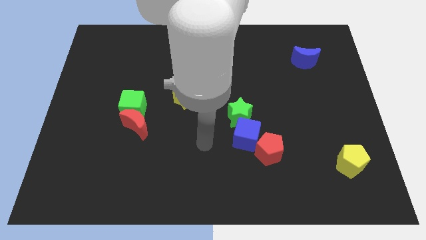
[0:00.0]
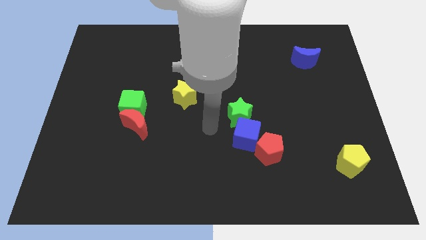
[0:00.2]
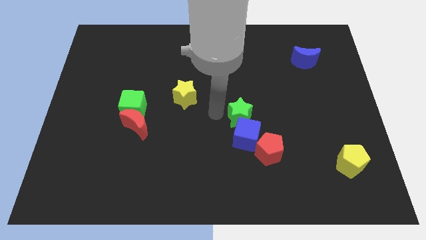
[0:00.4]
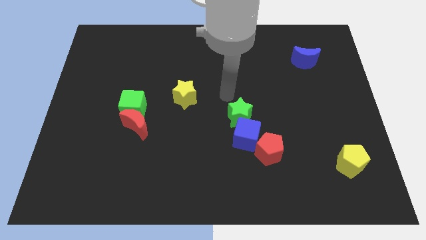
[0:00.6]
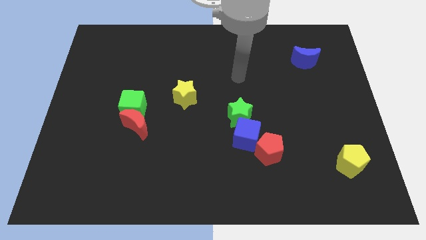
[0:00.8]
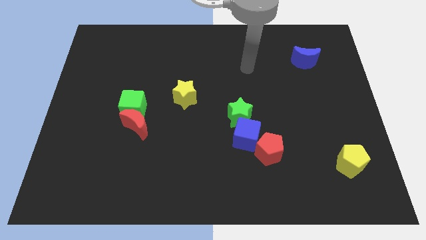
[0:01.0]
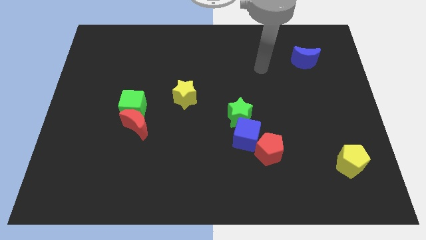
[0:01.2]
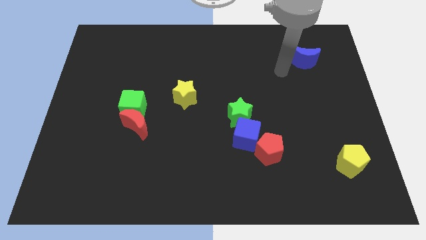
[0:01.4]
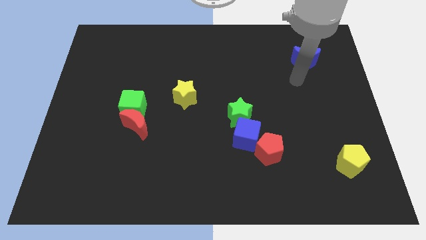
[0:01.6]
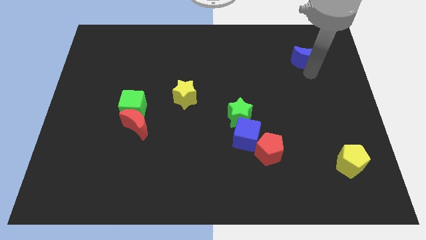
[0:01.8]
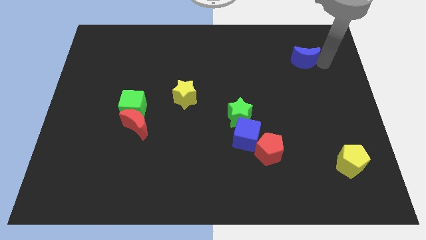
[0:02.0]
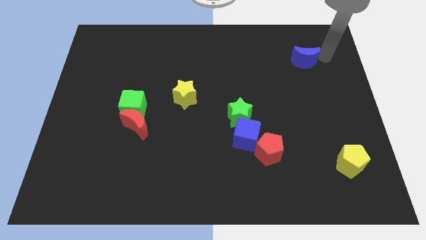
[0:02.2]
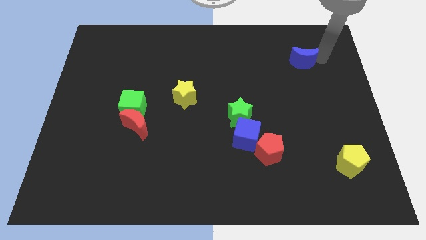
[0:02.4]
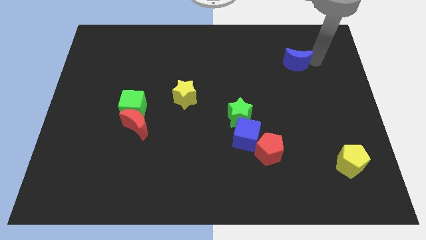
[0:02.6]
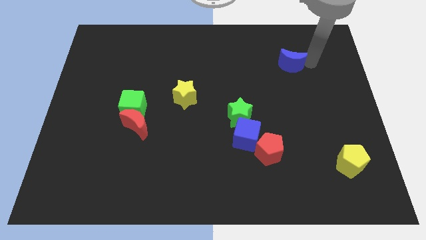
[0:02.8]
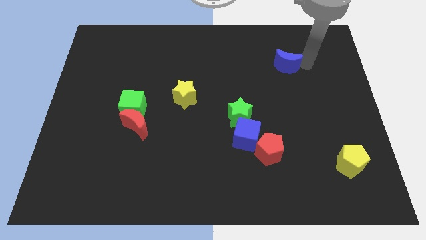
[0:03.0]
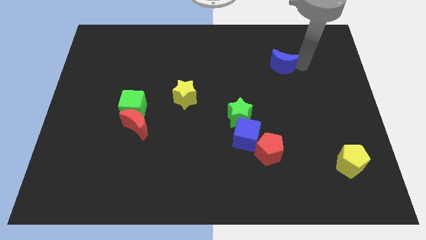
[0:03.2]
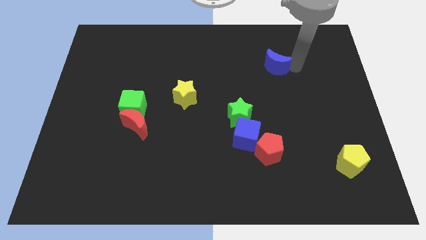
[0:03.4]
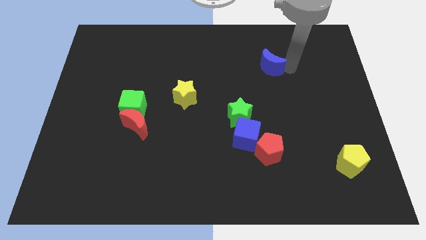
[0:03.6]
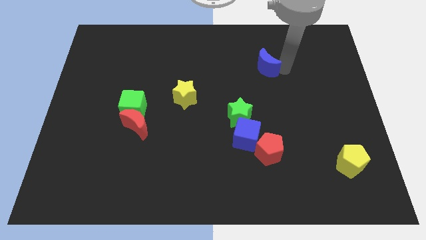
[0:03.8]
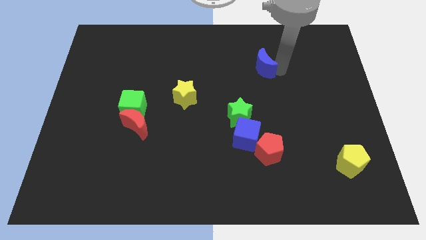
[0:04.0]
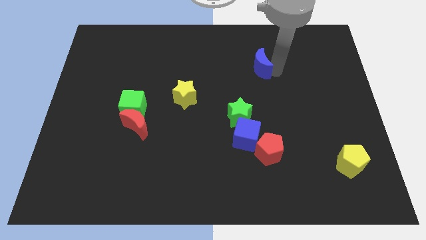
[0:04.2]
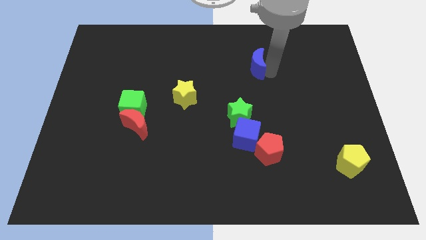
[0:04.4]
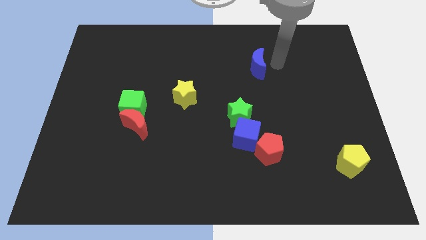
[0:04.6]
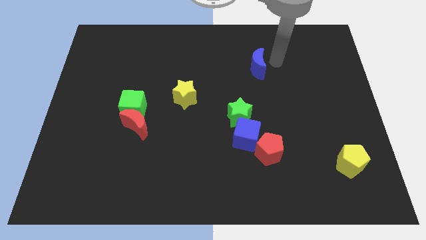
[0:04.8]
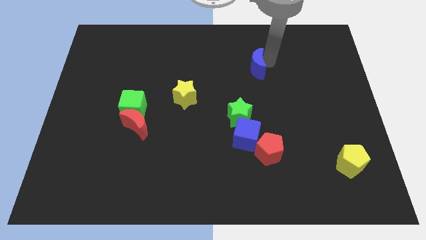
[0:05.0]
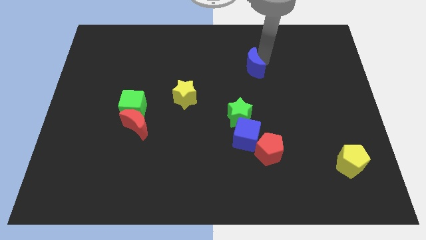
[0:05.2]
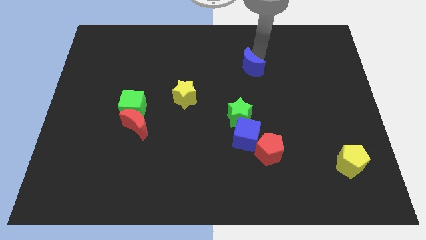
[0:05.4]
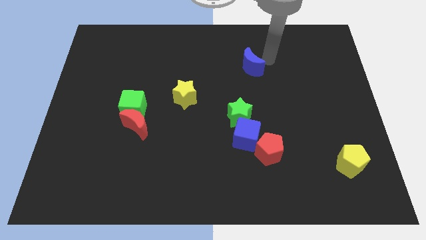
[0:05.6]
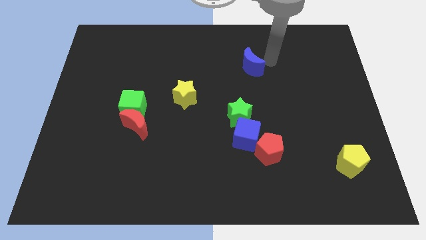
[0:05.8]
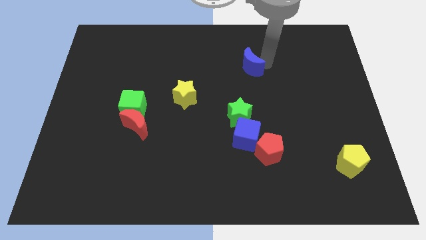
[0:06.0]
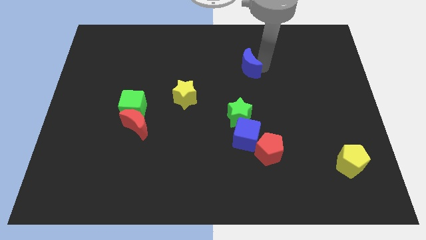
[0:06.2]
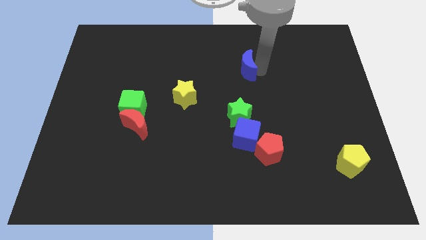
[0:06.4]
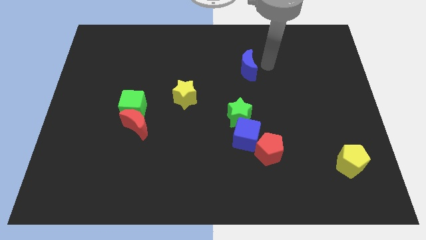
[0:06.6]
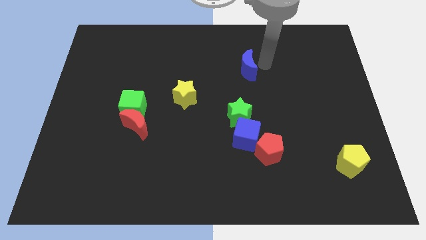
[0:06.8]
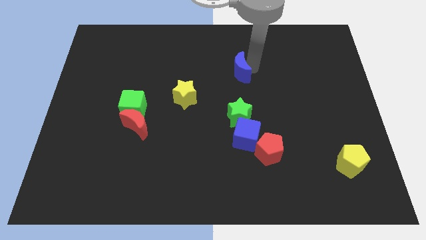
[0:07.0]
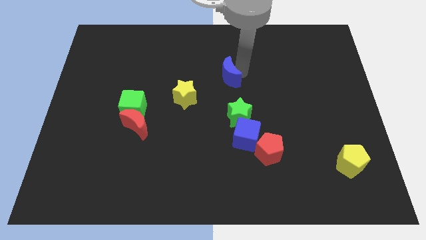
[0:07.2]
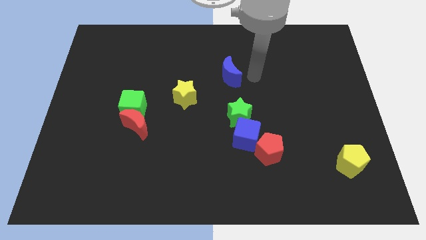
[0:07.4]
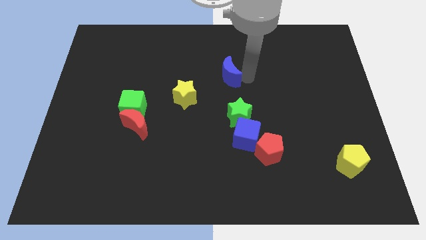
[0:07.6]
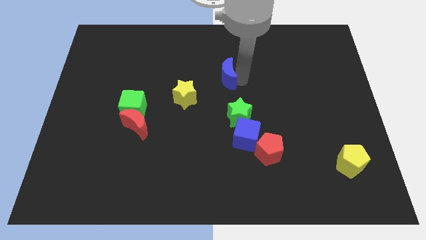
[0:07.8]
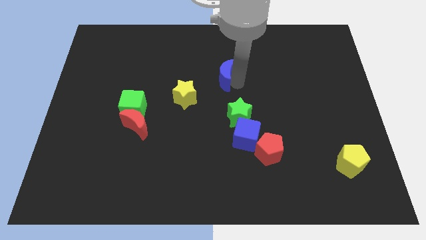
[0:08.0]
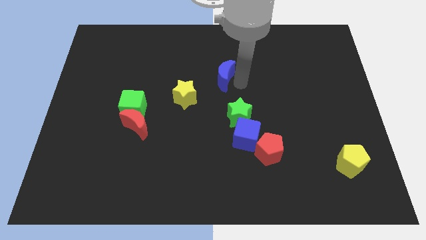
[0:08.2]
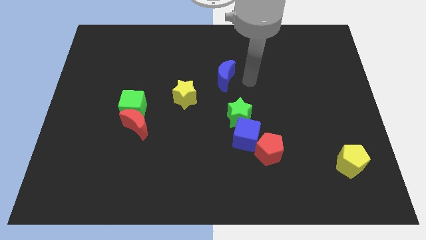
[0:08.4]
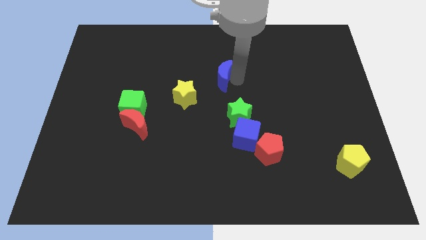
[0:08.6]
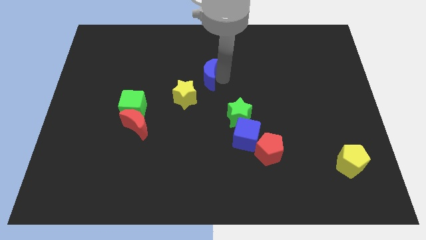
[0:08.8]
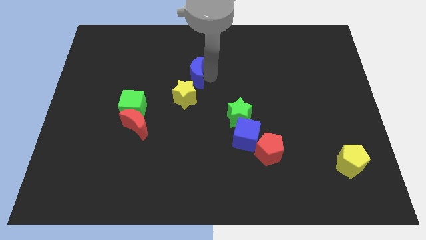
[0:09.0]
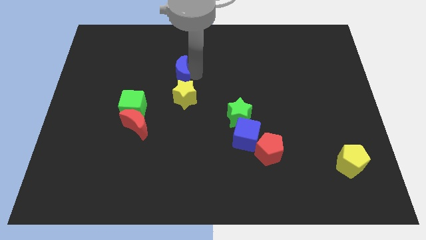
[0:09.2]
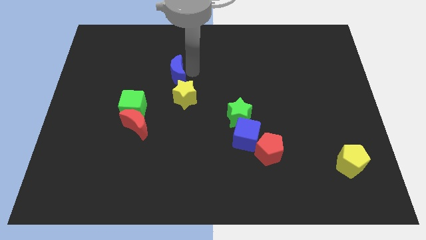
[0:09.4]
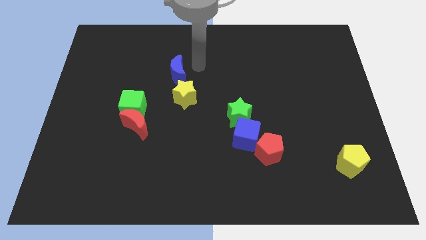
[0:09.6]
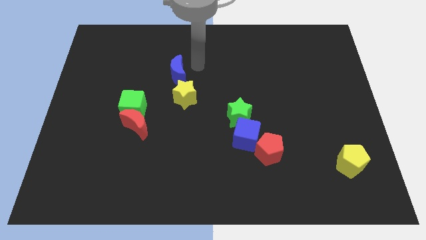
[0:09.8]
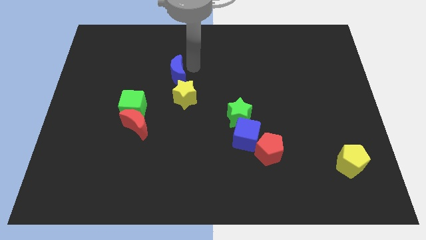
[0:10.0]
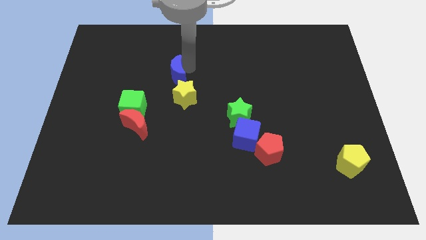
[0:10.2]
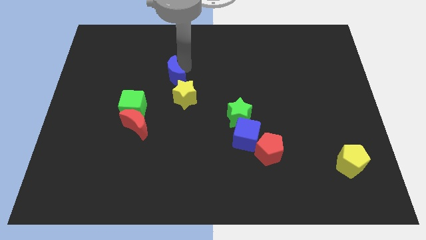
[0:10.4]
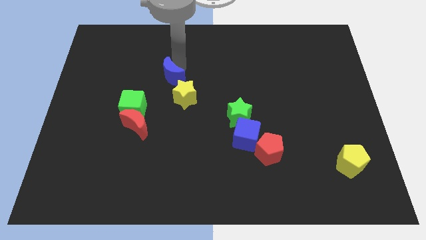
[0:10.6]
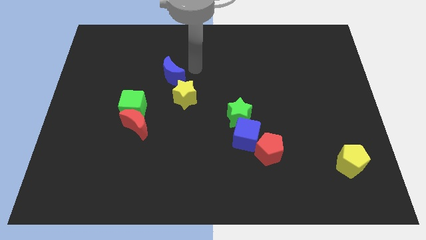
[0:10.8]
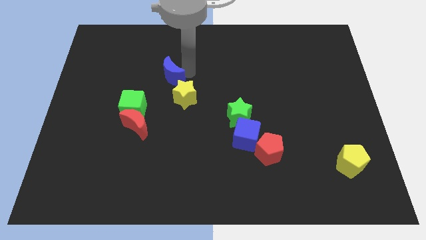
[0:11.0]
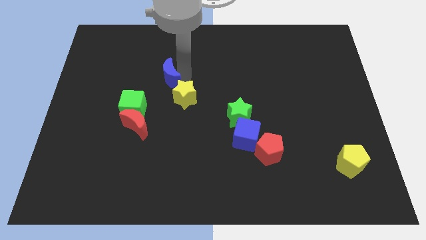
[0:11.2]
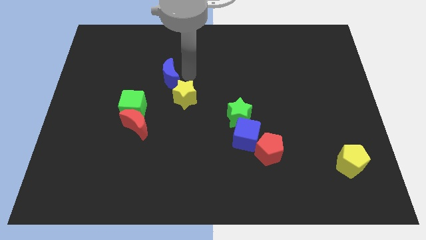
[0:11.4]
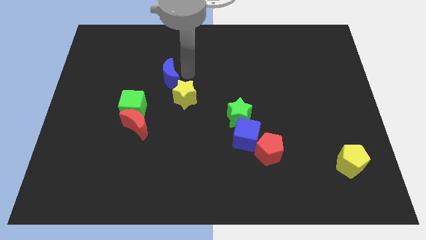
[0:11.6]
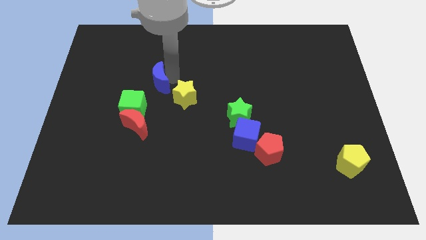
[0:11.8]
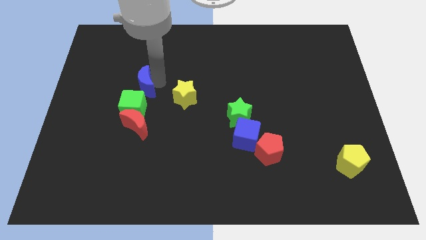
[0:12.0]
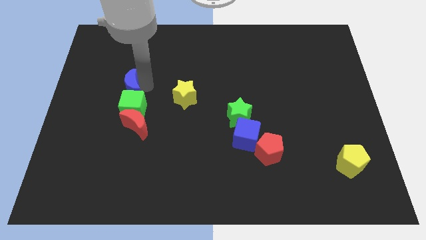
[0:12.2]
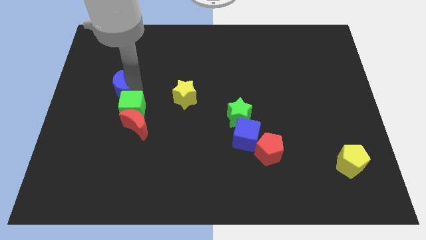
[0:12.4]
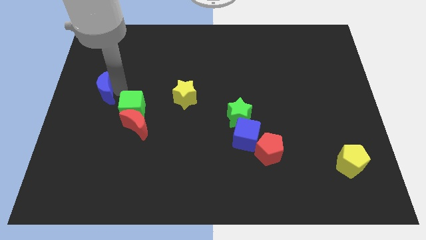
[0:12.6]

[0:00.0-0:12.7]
slide the blue moon to the left side of the board
